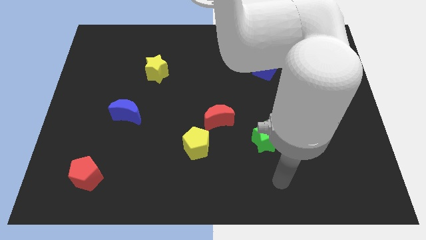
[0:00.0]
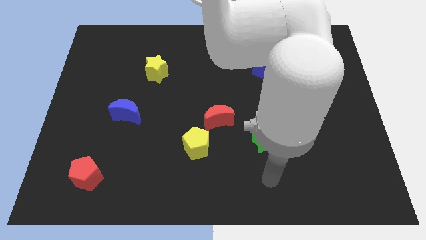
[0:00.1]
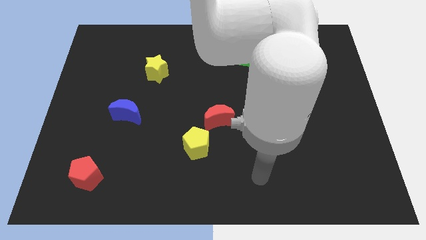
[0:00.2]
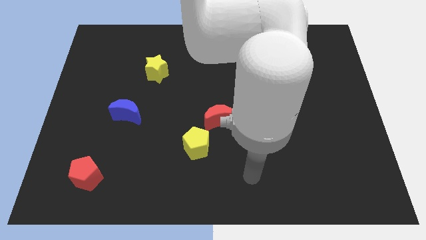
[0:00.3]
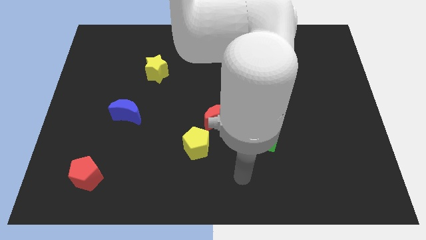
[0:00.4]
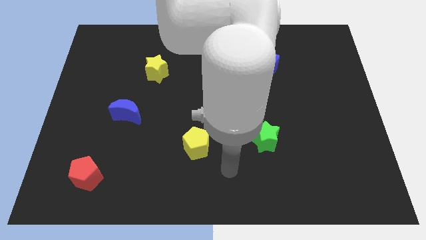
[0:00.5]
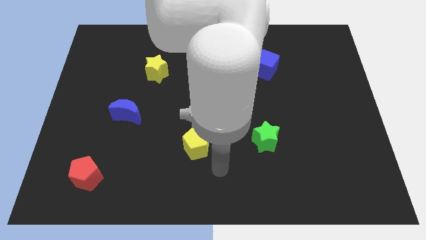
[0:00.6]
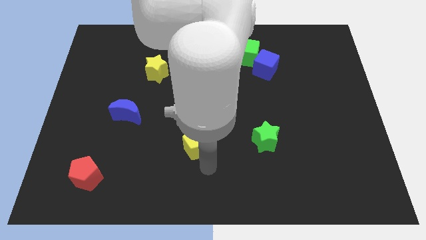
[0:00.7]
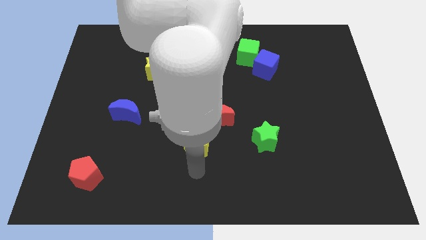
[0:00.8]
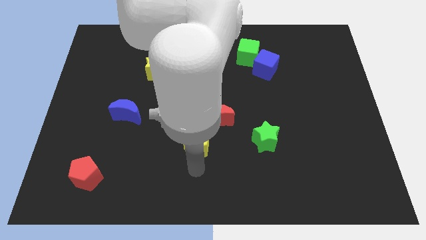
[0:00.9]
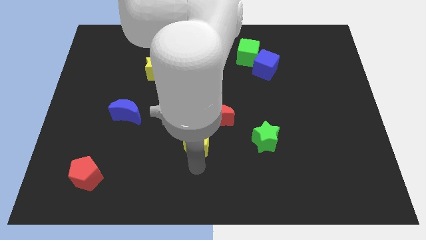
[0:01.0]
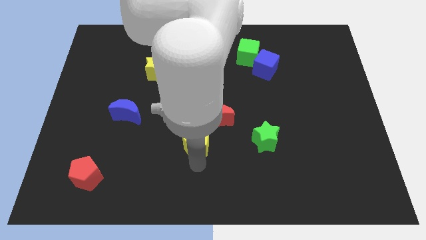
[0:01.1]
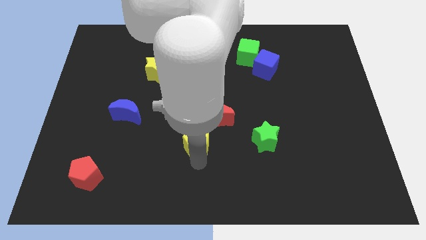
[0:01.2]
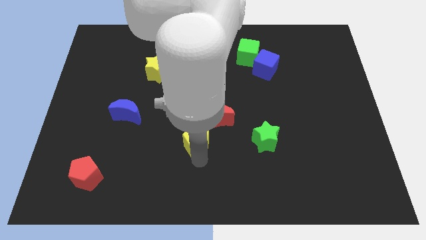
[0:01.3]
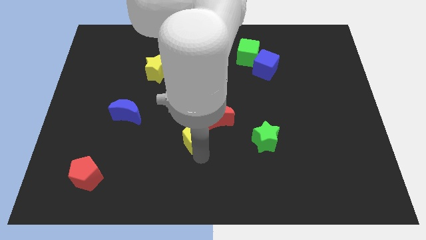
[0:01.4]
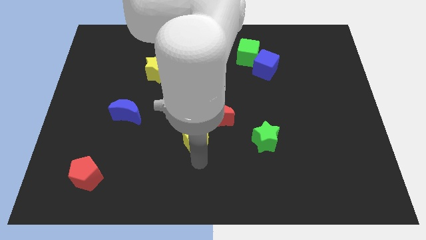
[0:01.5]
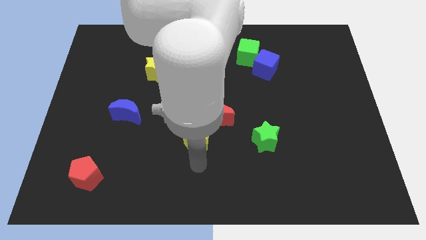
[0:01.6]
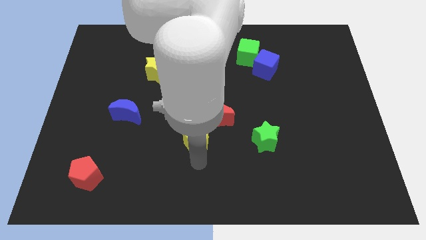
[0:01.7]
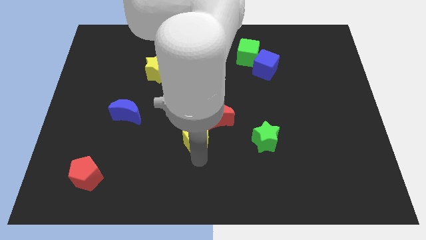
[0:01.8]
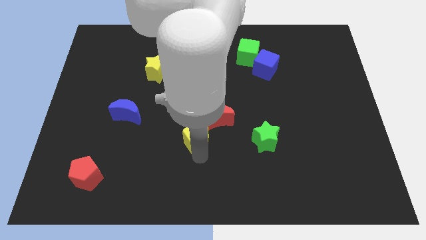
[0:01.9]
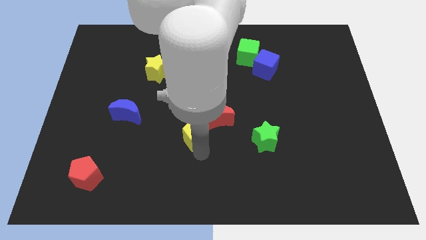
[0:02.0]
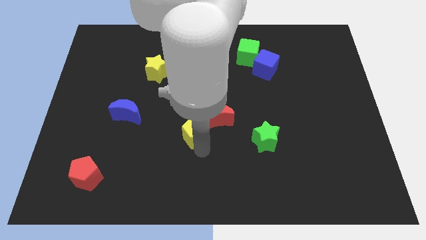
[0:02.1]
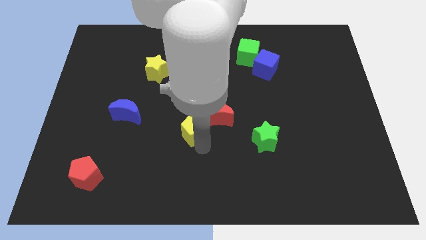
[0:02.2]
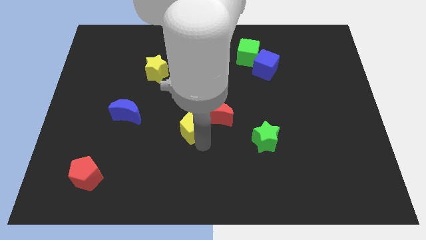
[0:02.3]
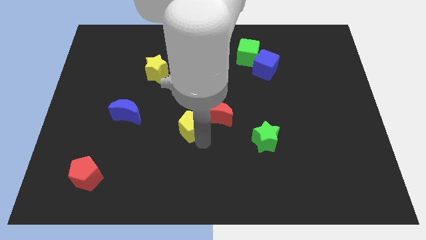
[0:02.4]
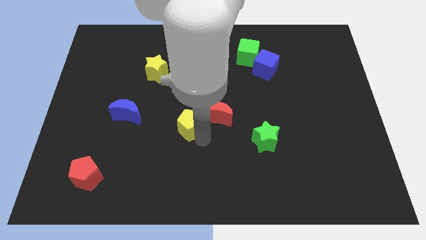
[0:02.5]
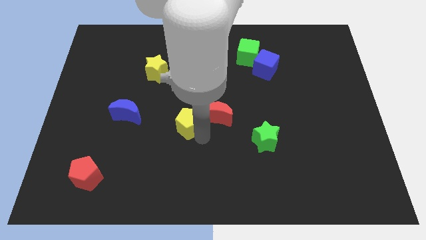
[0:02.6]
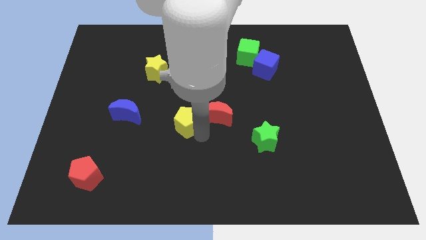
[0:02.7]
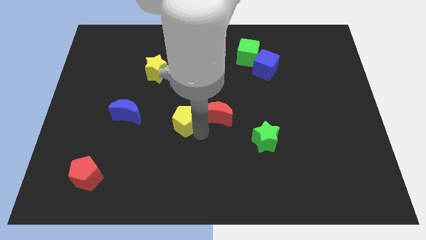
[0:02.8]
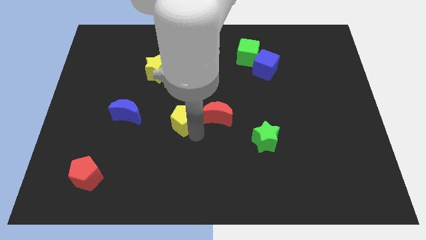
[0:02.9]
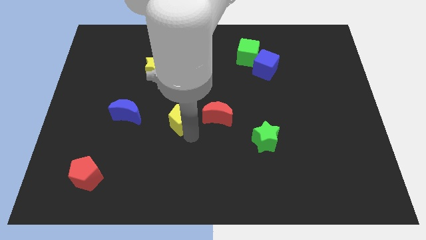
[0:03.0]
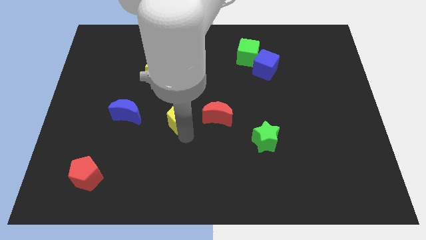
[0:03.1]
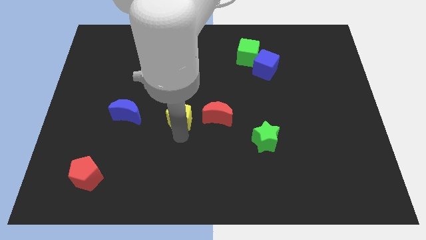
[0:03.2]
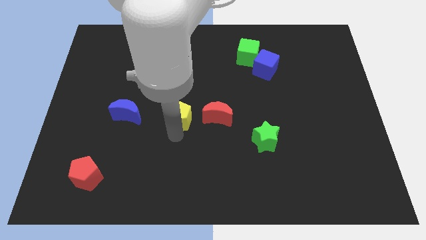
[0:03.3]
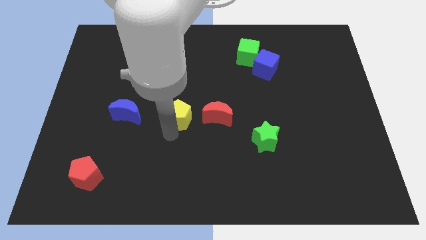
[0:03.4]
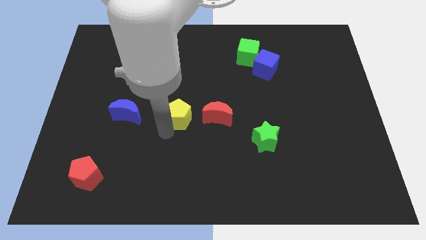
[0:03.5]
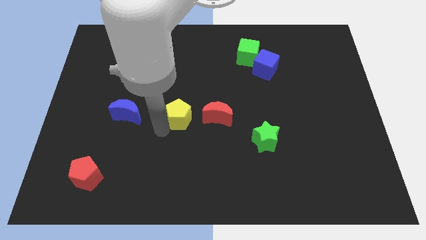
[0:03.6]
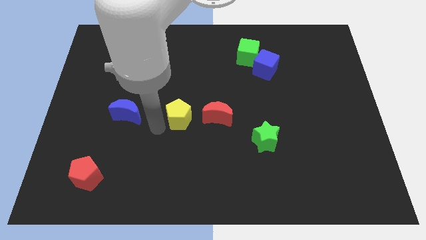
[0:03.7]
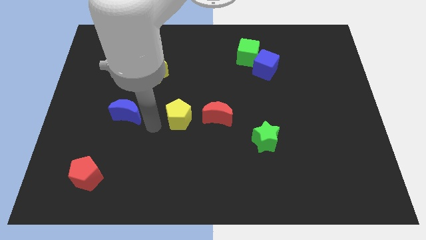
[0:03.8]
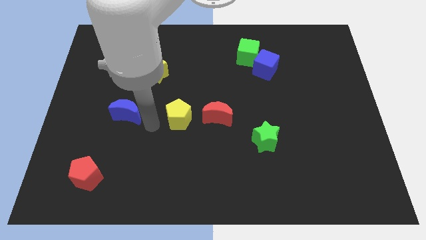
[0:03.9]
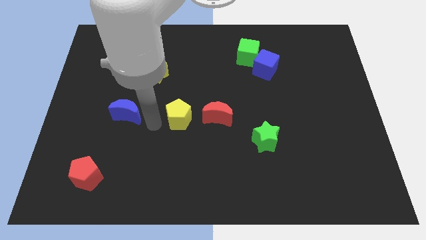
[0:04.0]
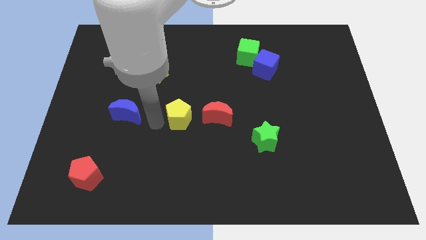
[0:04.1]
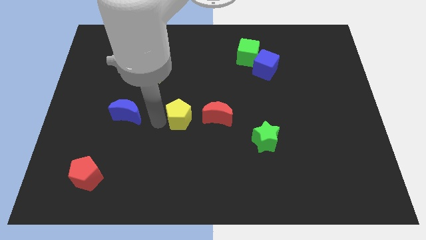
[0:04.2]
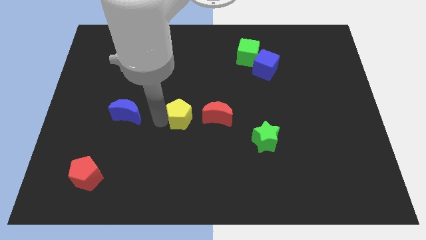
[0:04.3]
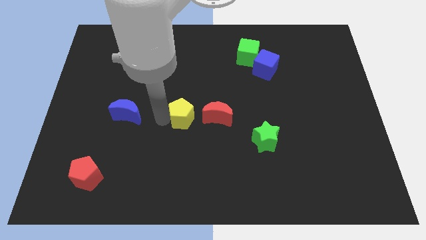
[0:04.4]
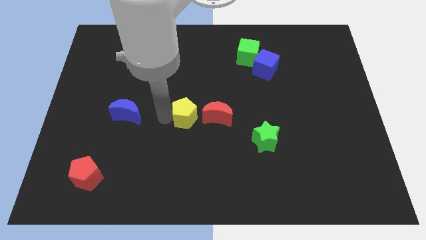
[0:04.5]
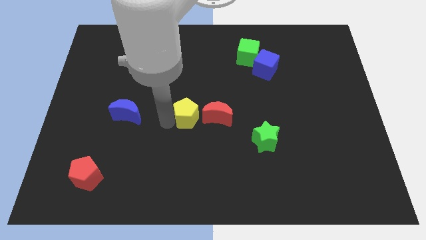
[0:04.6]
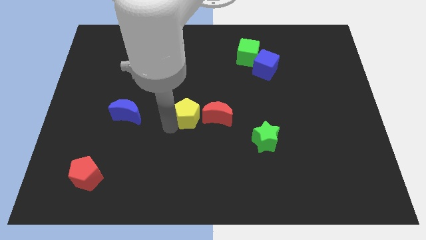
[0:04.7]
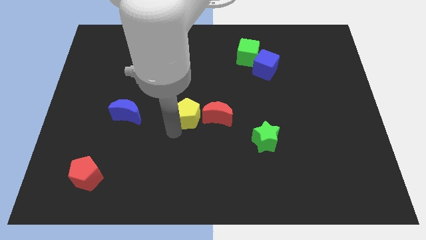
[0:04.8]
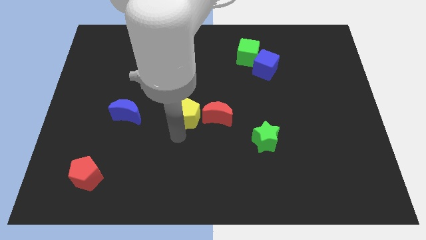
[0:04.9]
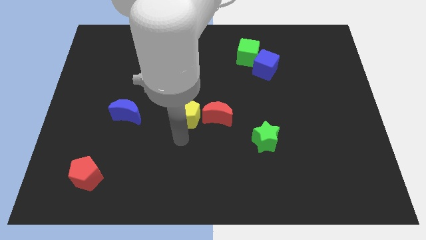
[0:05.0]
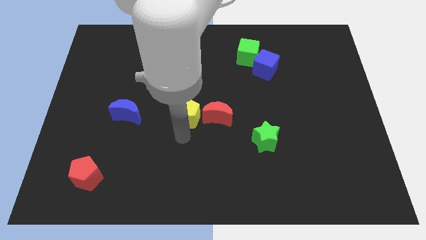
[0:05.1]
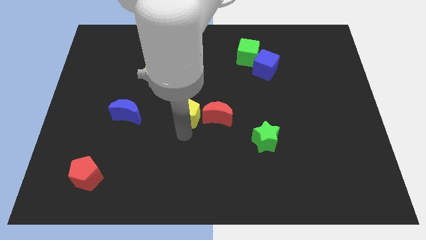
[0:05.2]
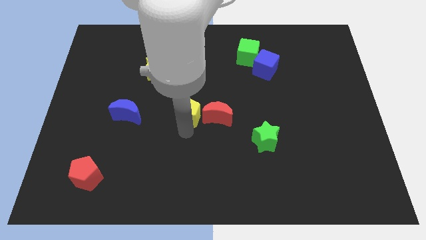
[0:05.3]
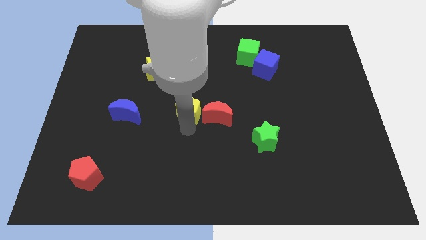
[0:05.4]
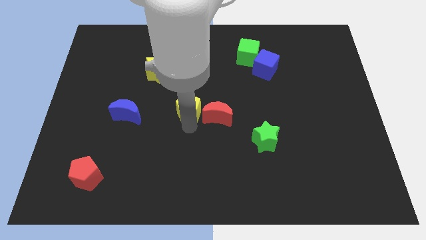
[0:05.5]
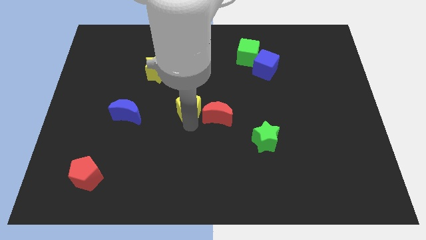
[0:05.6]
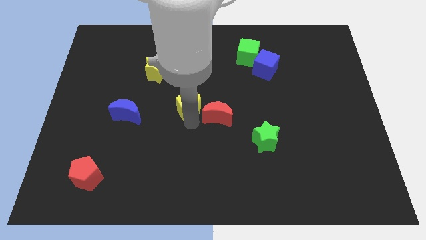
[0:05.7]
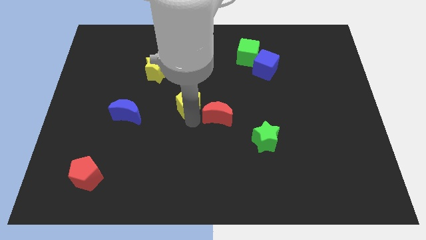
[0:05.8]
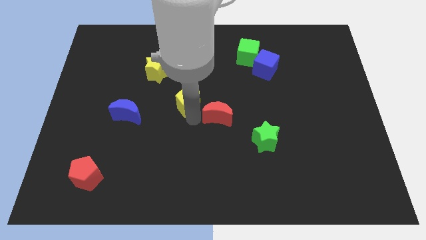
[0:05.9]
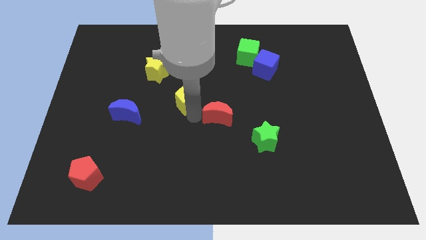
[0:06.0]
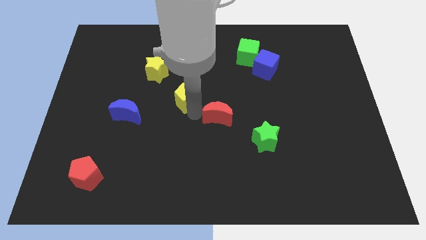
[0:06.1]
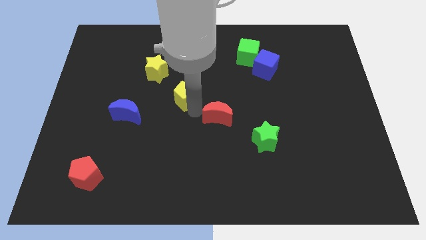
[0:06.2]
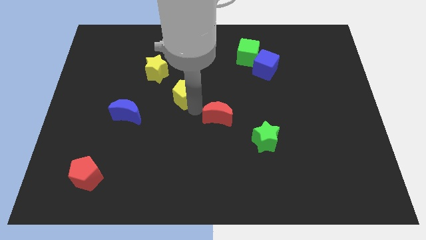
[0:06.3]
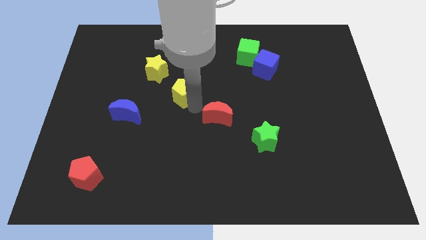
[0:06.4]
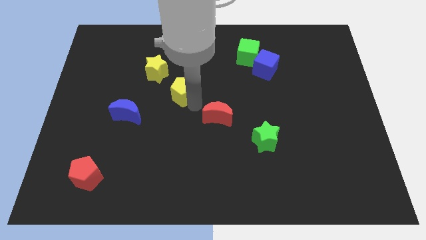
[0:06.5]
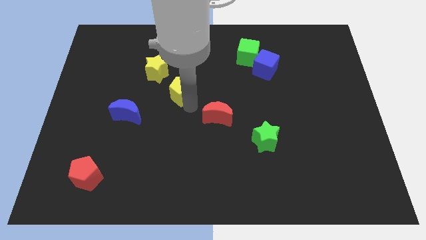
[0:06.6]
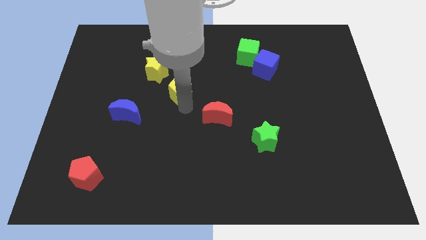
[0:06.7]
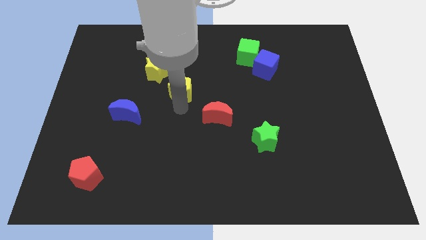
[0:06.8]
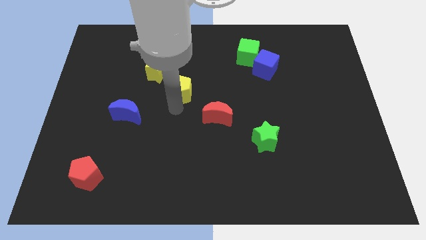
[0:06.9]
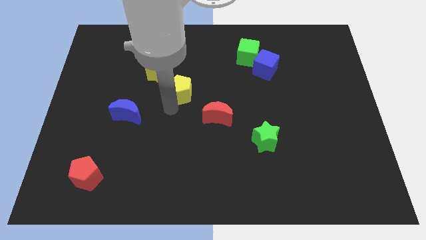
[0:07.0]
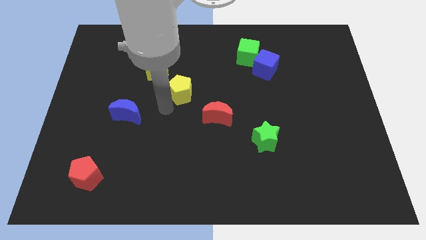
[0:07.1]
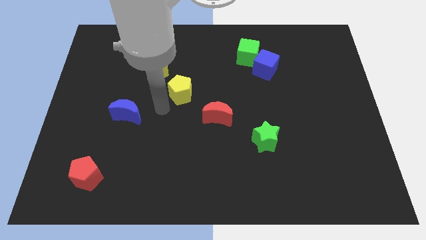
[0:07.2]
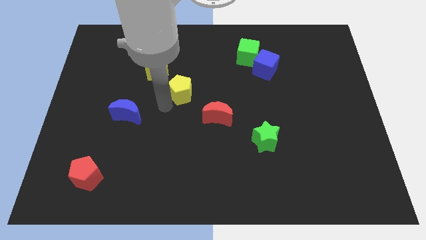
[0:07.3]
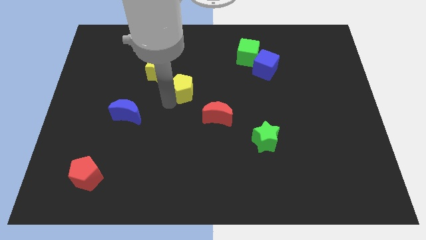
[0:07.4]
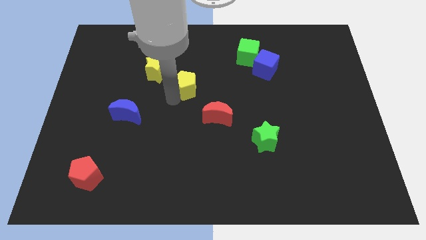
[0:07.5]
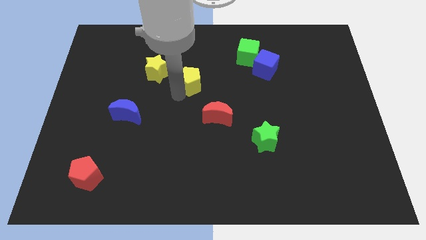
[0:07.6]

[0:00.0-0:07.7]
slide the yellow pentagon to the right side of the yellow star

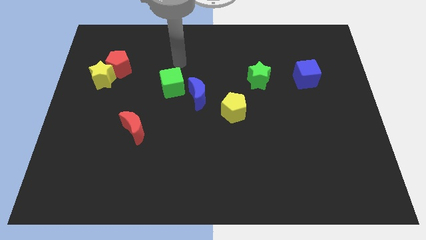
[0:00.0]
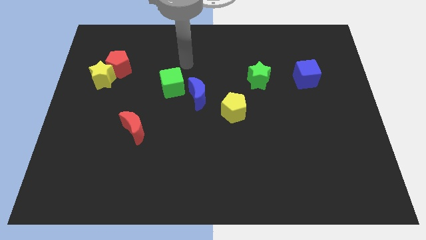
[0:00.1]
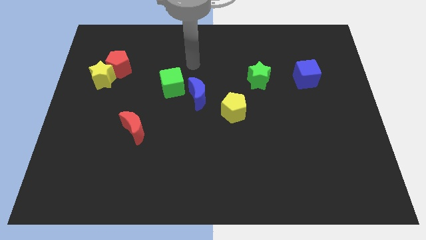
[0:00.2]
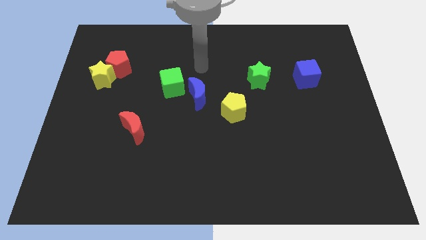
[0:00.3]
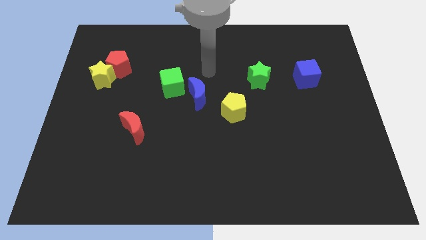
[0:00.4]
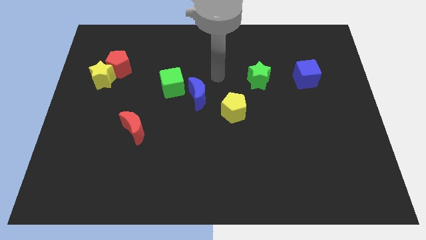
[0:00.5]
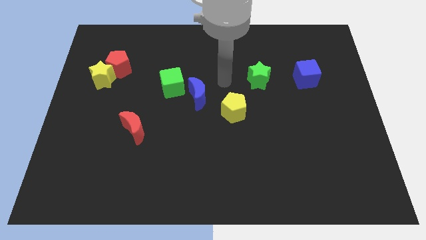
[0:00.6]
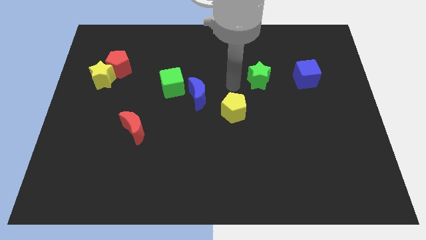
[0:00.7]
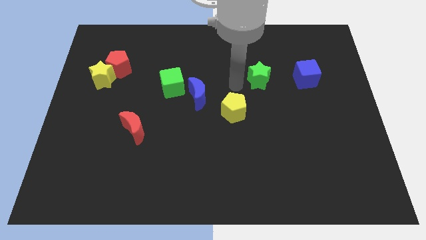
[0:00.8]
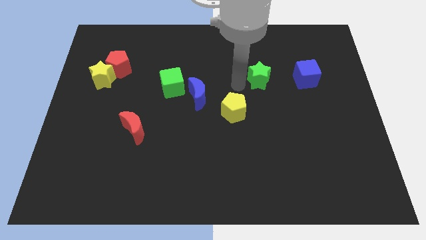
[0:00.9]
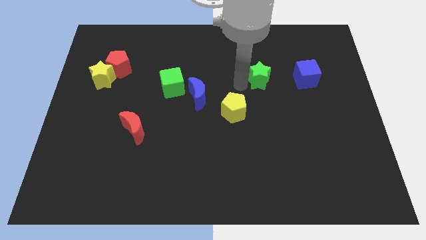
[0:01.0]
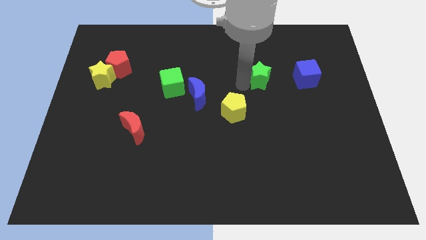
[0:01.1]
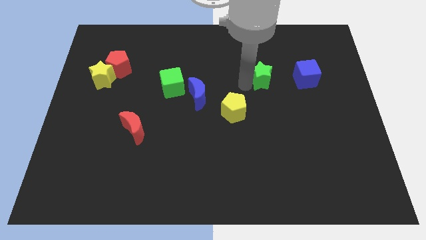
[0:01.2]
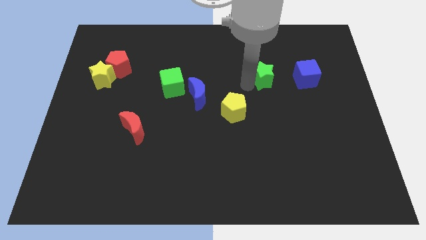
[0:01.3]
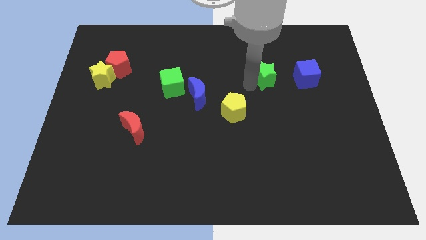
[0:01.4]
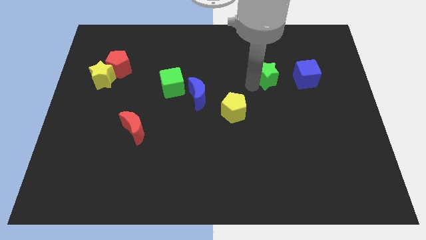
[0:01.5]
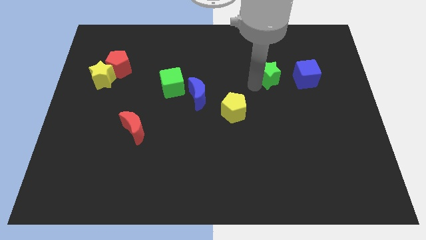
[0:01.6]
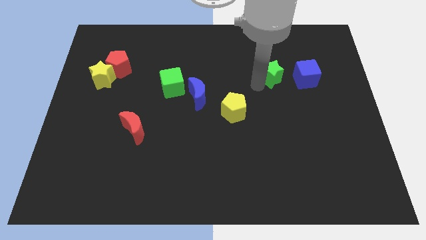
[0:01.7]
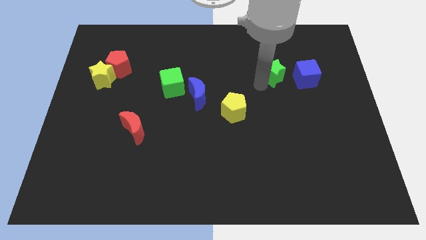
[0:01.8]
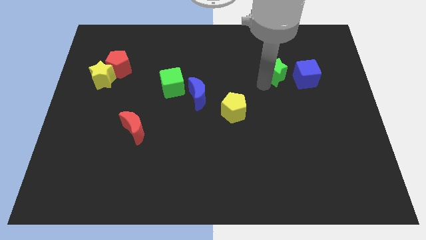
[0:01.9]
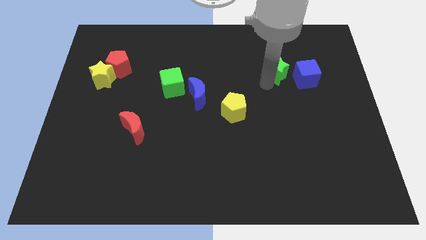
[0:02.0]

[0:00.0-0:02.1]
slide the green star to the top left of the blue cube
